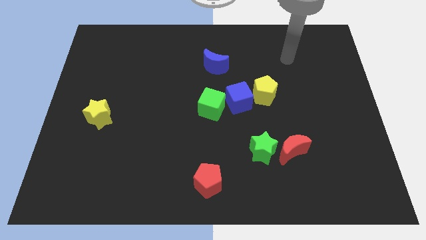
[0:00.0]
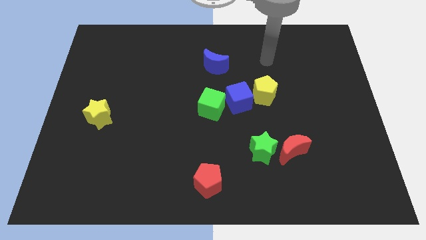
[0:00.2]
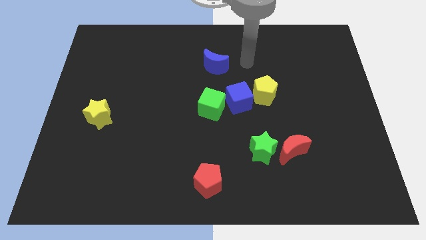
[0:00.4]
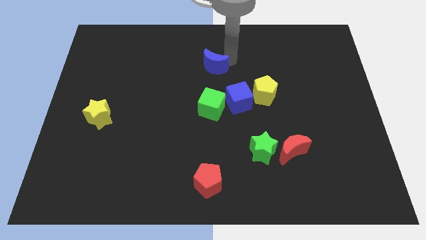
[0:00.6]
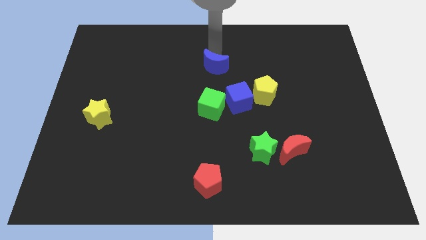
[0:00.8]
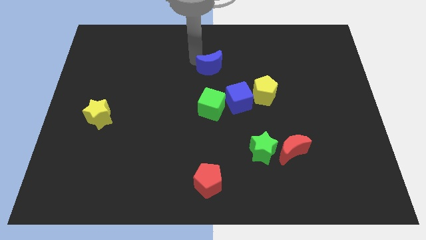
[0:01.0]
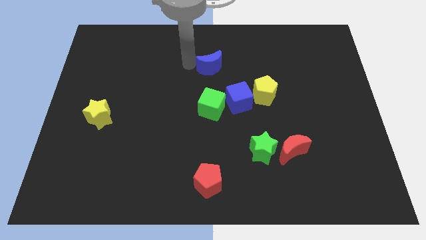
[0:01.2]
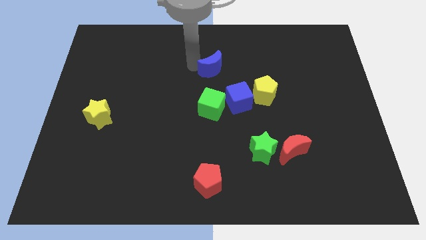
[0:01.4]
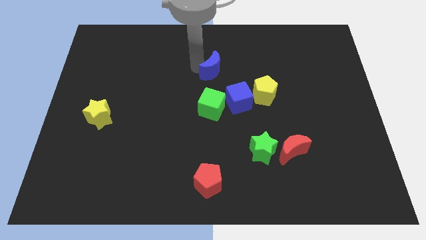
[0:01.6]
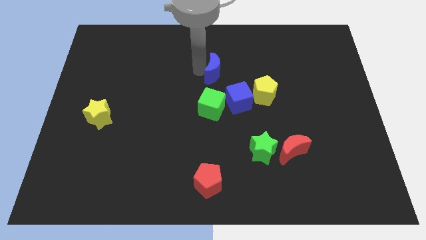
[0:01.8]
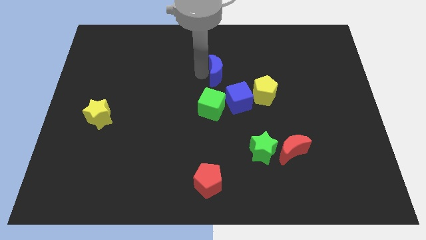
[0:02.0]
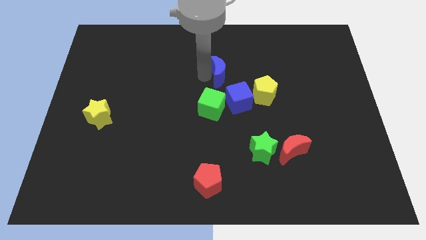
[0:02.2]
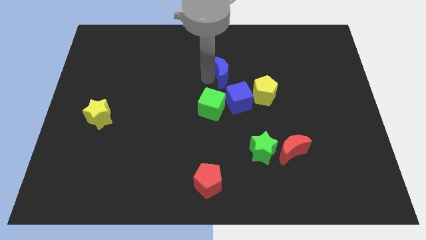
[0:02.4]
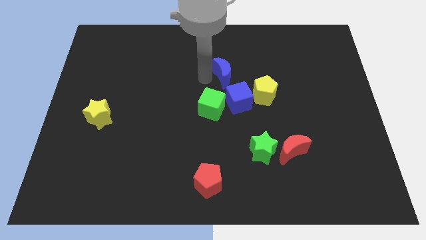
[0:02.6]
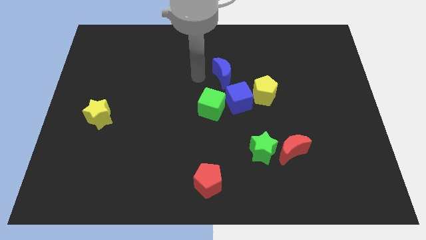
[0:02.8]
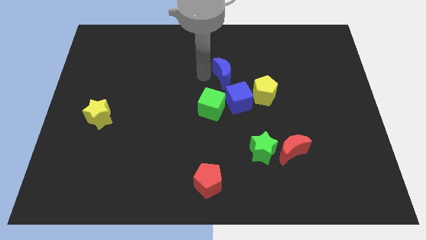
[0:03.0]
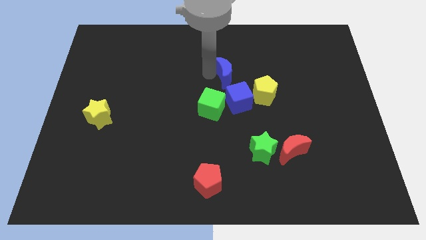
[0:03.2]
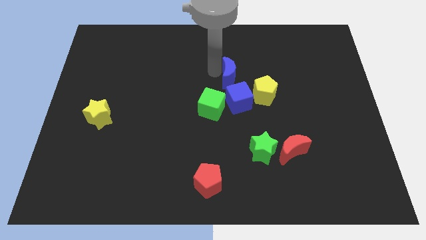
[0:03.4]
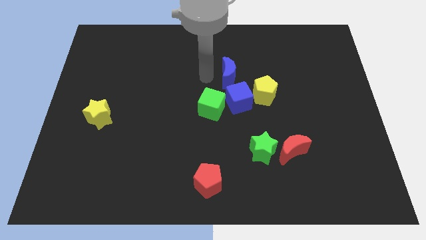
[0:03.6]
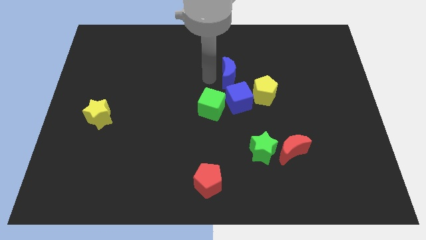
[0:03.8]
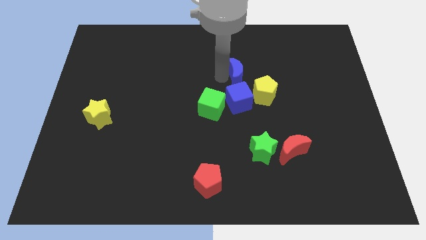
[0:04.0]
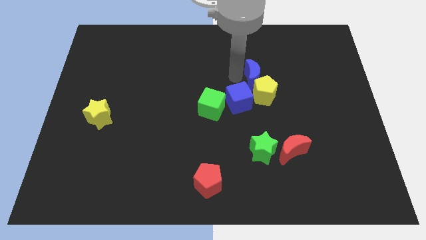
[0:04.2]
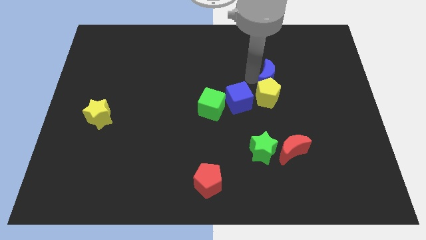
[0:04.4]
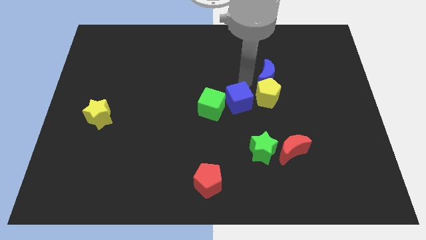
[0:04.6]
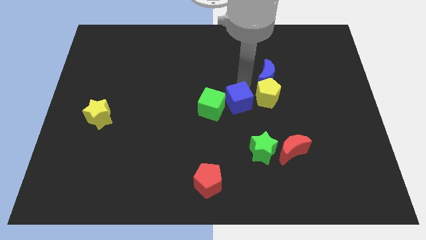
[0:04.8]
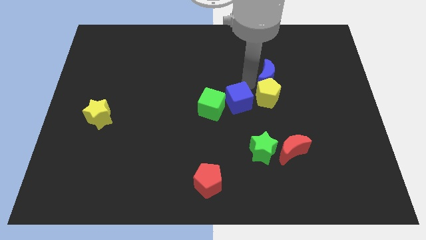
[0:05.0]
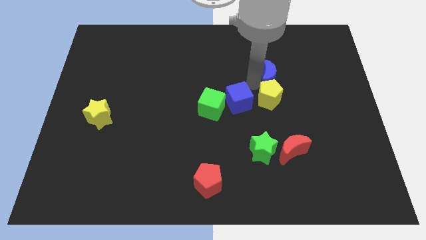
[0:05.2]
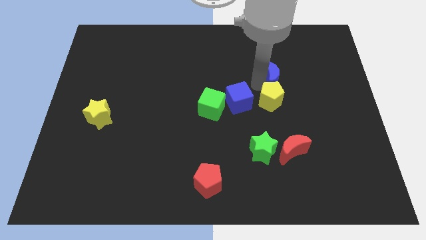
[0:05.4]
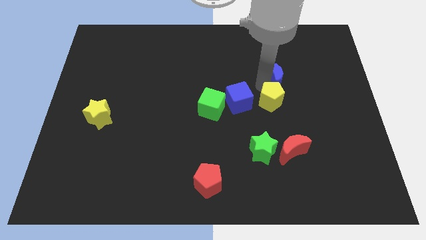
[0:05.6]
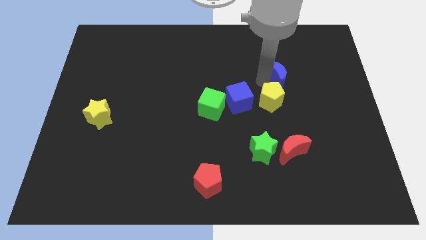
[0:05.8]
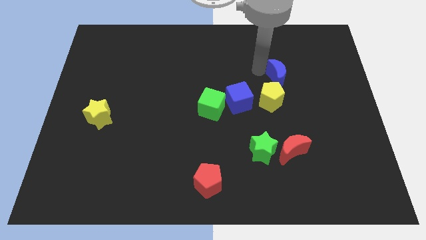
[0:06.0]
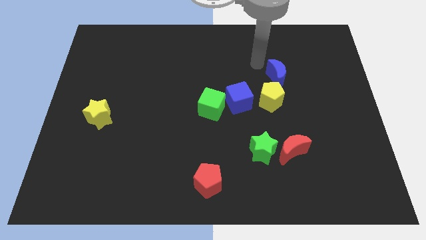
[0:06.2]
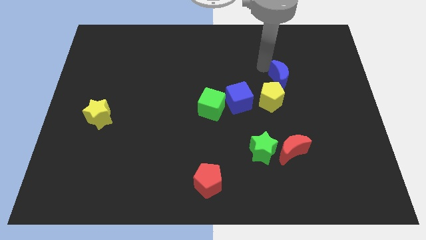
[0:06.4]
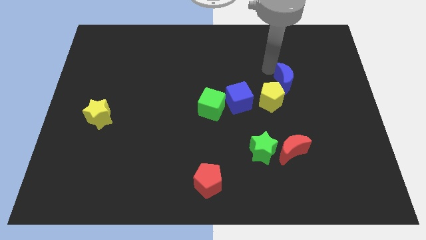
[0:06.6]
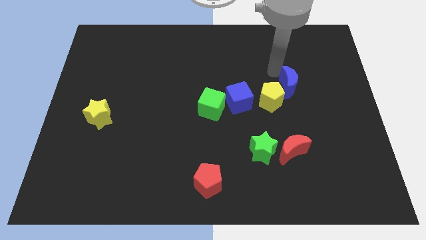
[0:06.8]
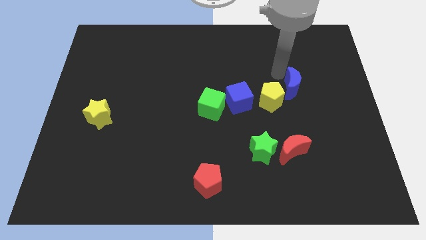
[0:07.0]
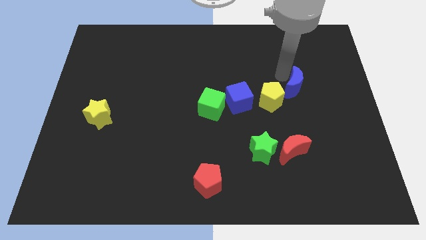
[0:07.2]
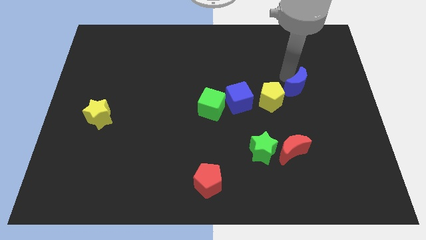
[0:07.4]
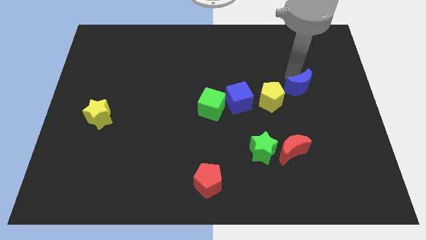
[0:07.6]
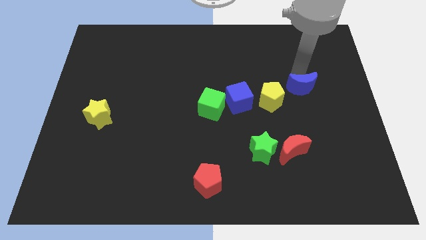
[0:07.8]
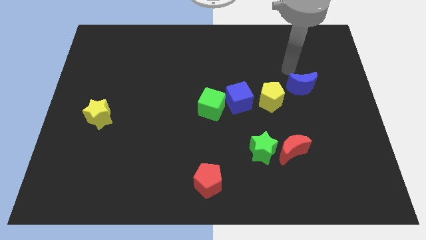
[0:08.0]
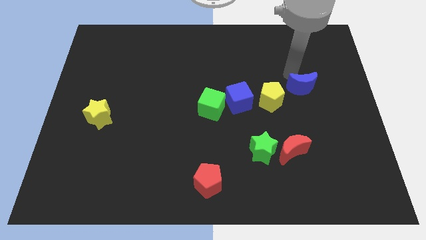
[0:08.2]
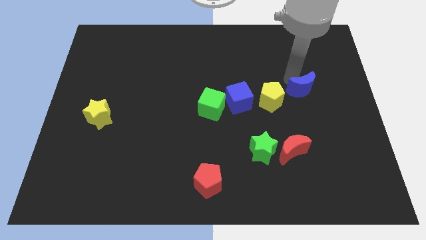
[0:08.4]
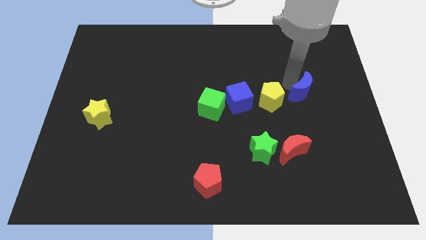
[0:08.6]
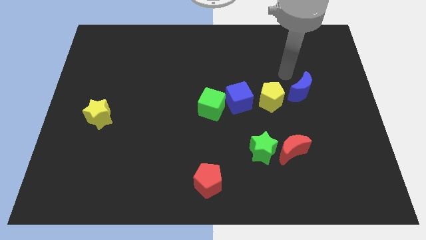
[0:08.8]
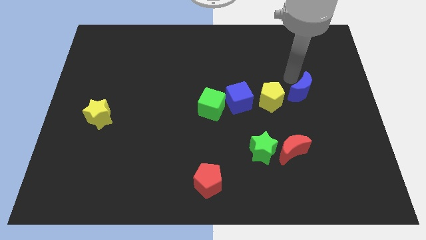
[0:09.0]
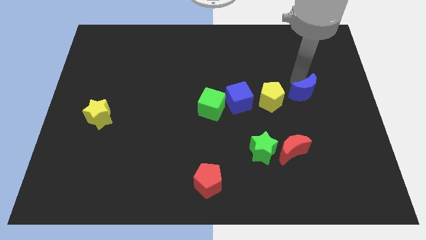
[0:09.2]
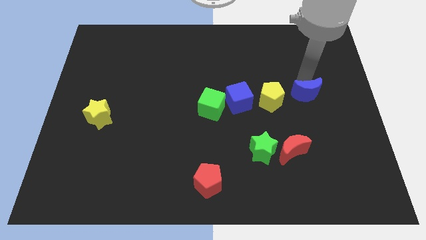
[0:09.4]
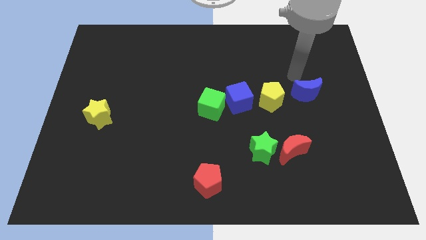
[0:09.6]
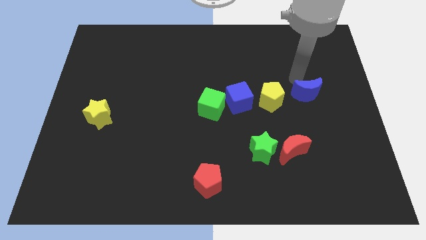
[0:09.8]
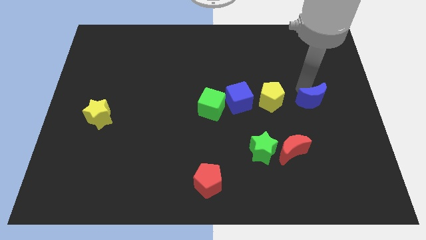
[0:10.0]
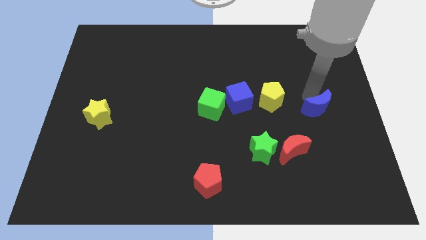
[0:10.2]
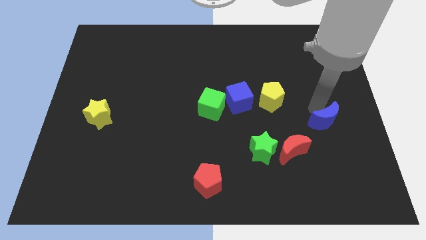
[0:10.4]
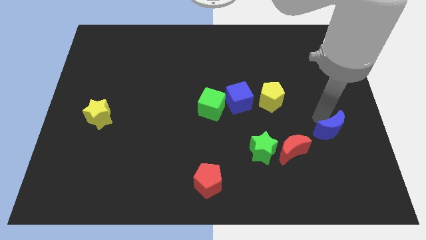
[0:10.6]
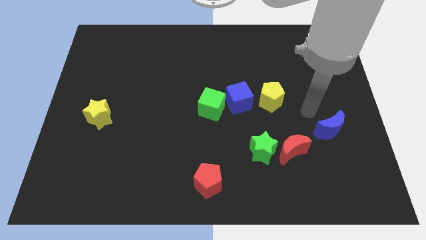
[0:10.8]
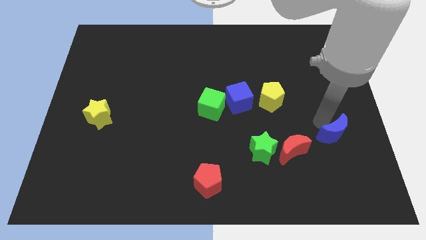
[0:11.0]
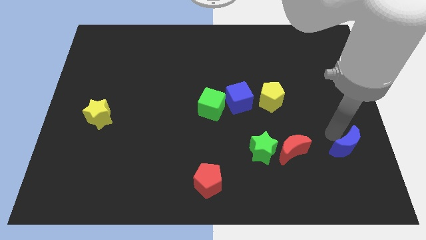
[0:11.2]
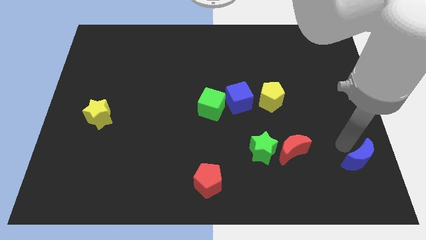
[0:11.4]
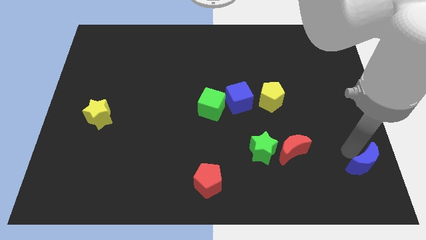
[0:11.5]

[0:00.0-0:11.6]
push the blue moon to the bottom right corner

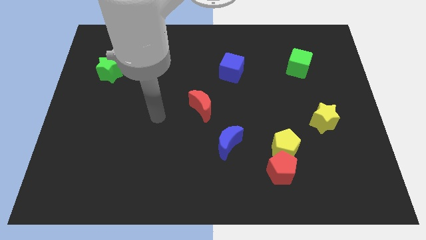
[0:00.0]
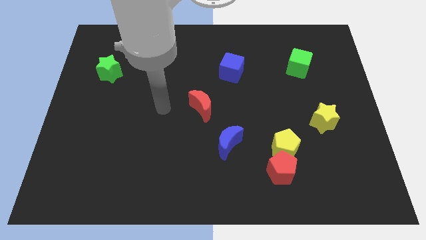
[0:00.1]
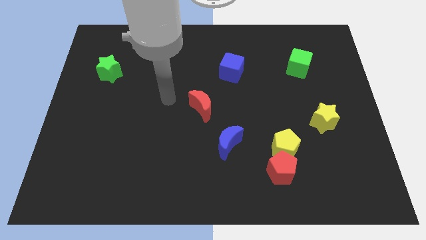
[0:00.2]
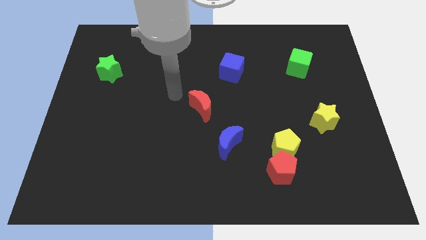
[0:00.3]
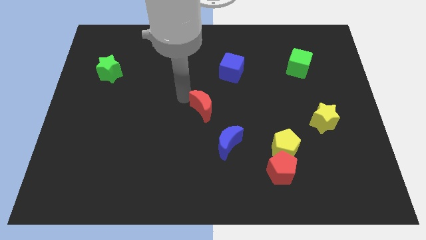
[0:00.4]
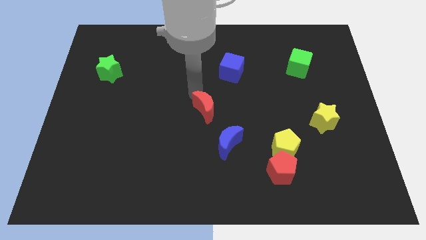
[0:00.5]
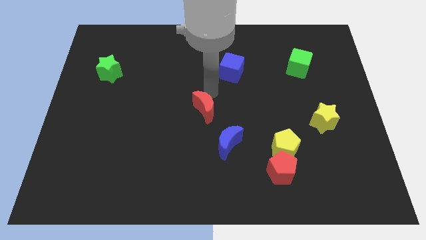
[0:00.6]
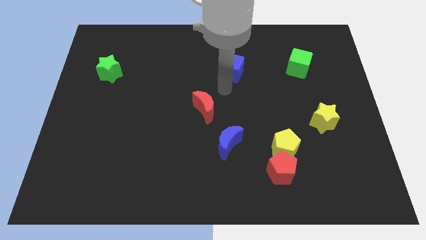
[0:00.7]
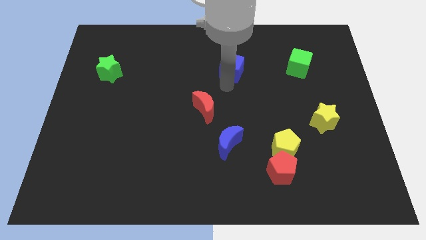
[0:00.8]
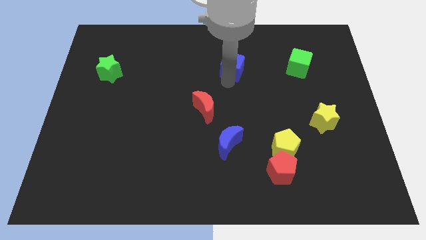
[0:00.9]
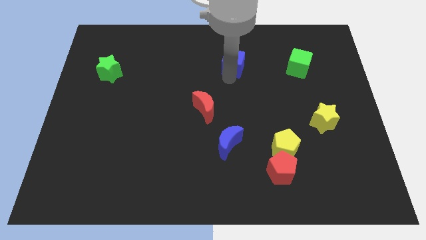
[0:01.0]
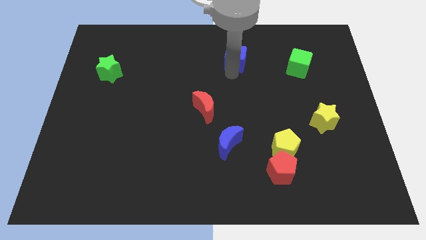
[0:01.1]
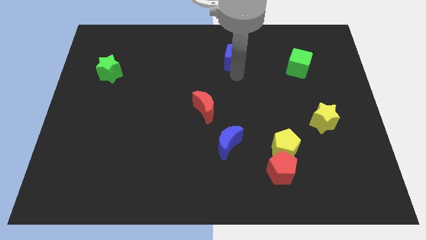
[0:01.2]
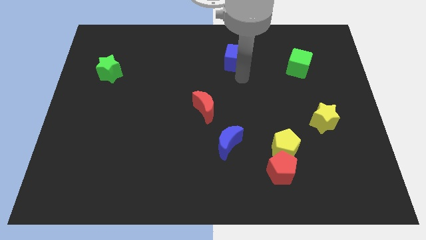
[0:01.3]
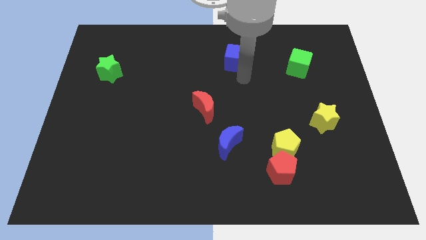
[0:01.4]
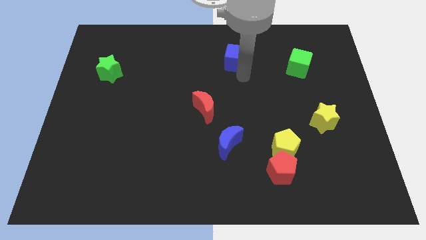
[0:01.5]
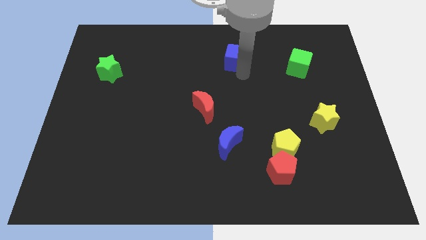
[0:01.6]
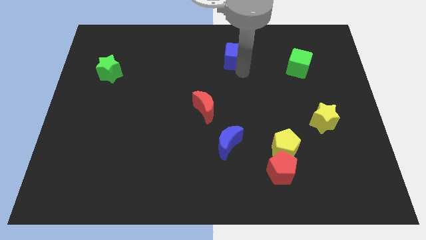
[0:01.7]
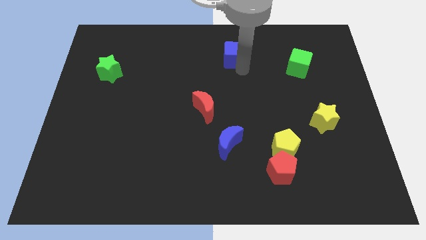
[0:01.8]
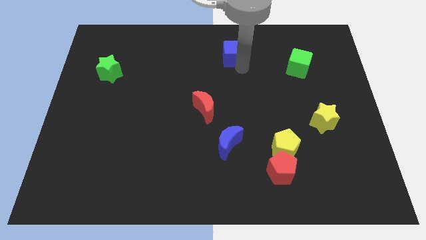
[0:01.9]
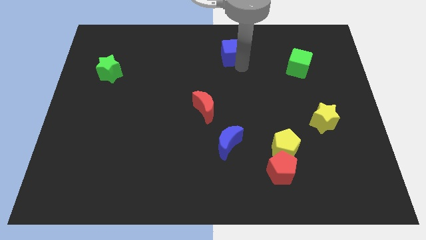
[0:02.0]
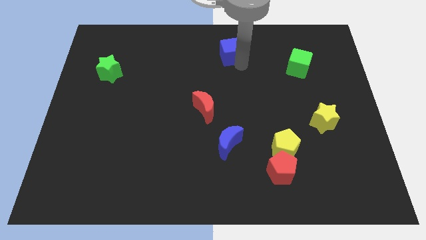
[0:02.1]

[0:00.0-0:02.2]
move the blue cube to the towards your base
